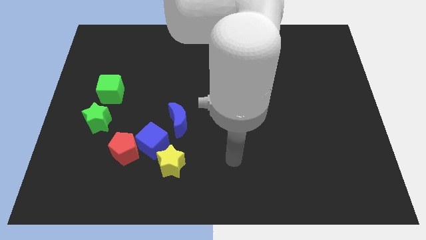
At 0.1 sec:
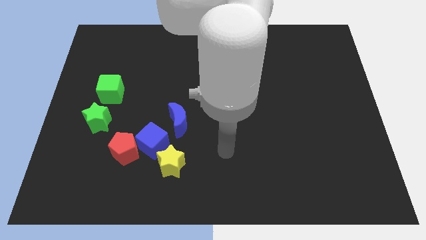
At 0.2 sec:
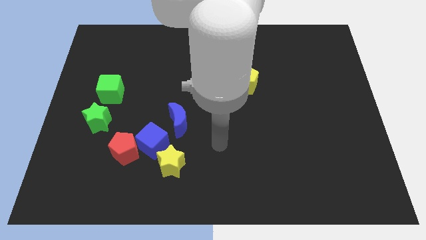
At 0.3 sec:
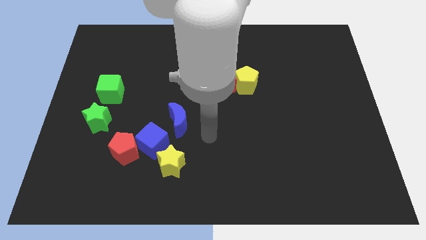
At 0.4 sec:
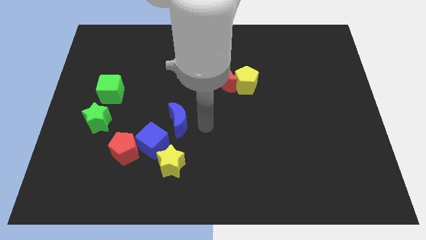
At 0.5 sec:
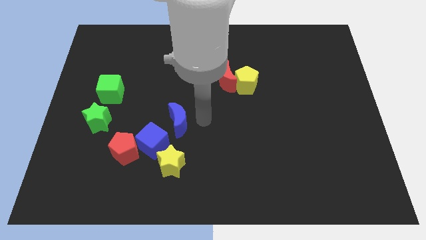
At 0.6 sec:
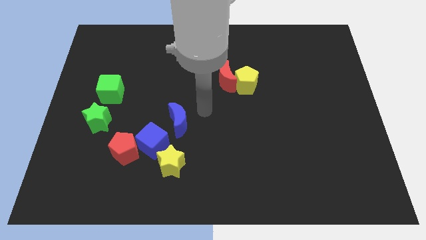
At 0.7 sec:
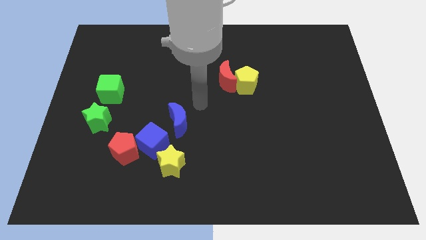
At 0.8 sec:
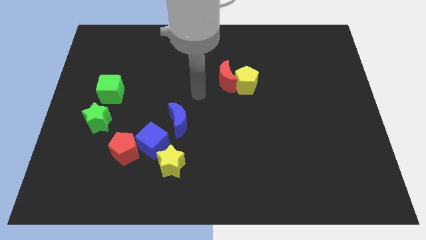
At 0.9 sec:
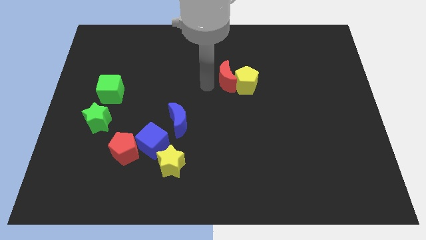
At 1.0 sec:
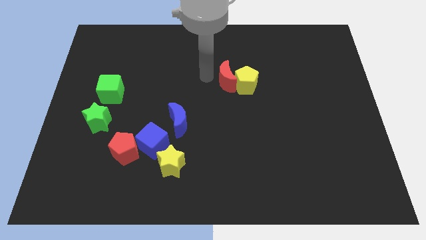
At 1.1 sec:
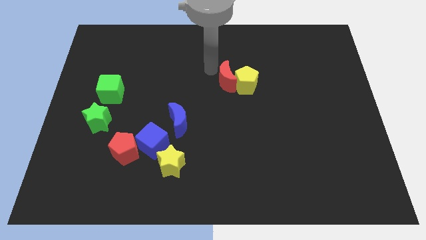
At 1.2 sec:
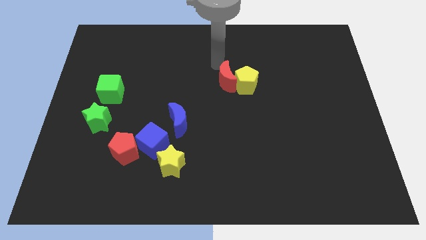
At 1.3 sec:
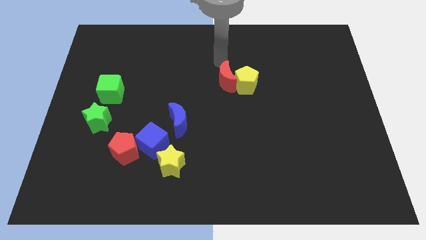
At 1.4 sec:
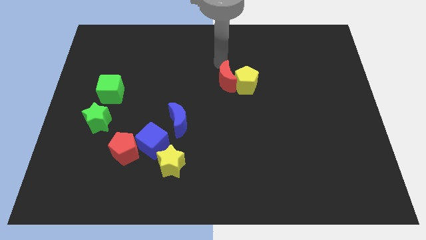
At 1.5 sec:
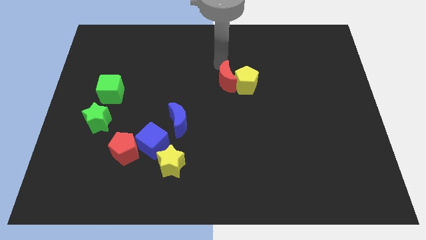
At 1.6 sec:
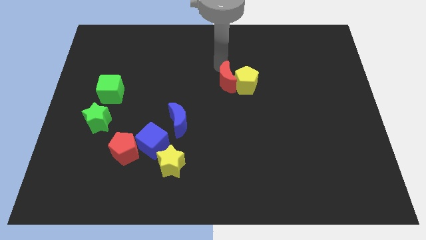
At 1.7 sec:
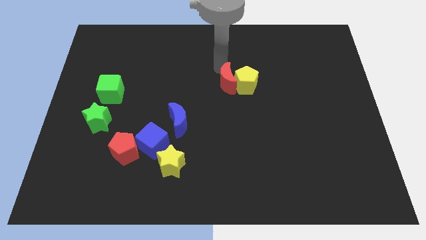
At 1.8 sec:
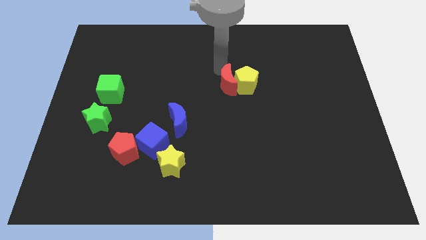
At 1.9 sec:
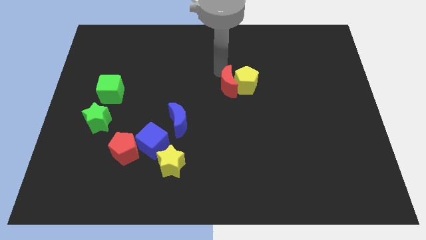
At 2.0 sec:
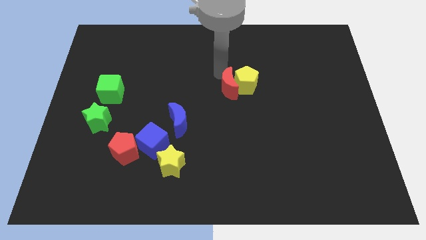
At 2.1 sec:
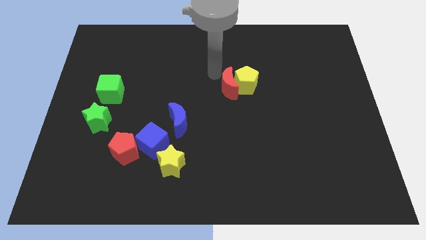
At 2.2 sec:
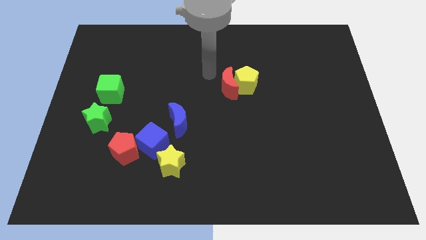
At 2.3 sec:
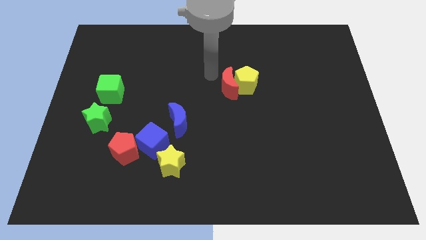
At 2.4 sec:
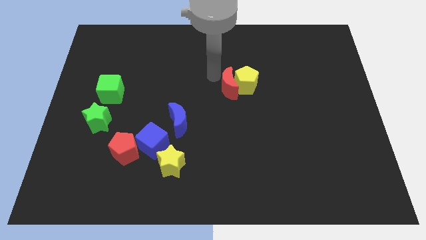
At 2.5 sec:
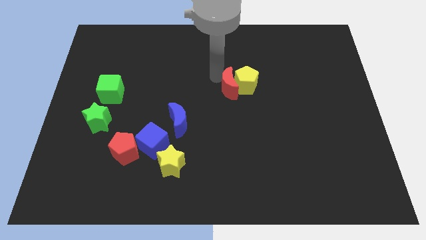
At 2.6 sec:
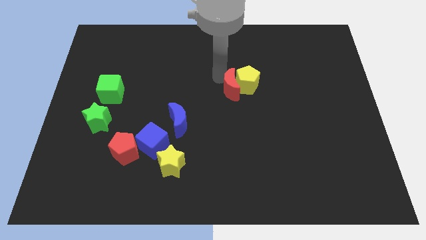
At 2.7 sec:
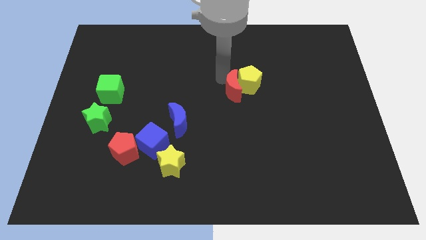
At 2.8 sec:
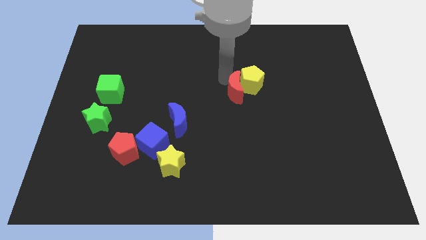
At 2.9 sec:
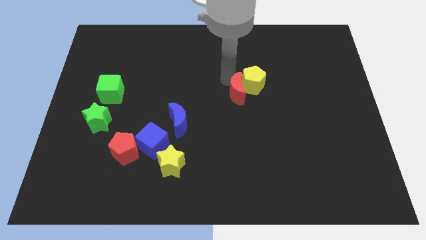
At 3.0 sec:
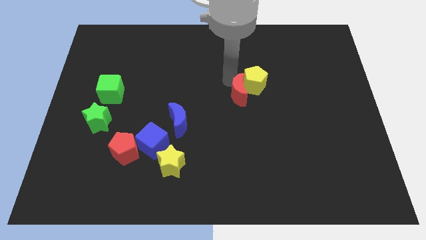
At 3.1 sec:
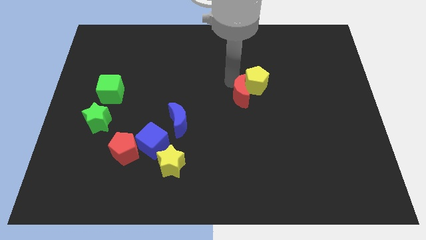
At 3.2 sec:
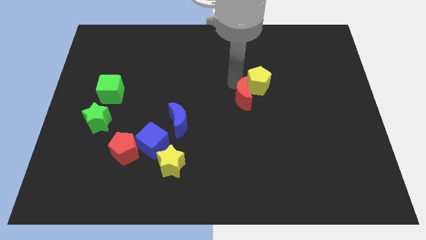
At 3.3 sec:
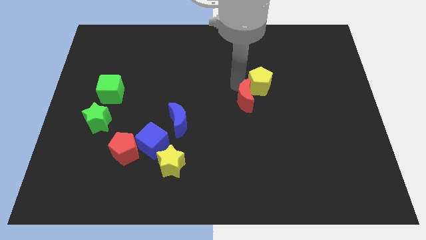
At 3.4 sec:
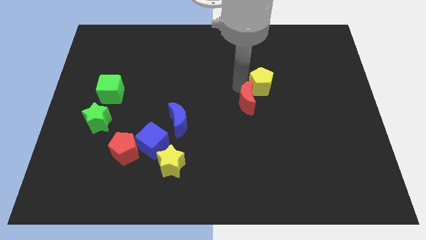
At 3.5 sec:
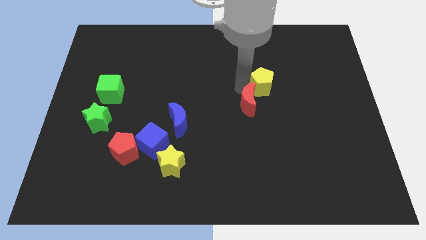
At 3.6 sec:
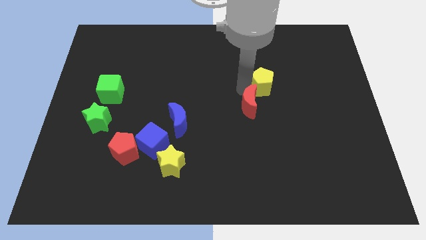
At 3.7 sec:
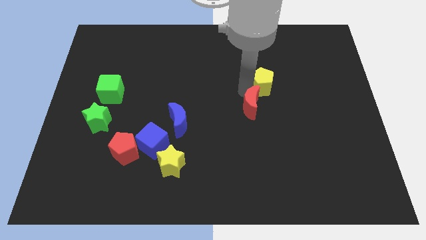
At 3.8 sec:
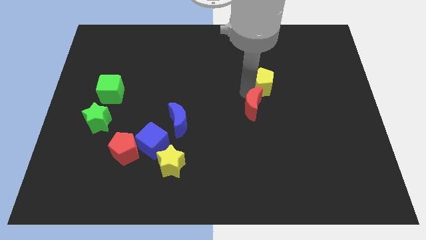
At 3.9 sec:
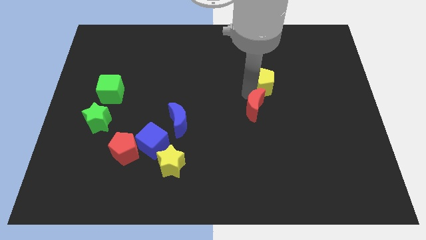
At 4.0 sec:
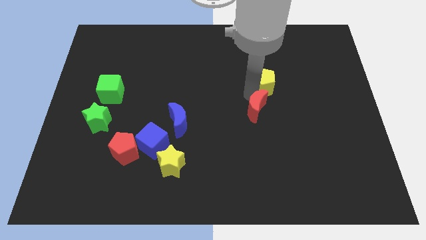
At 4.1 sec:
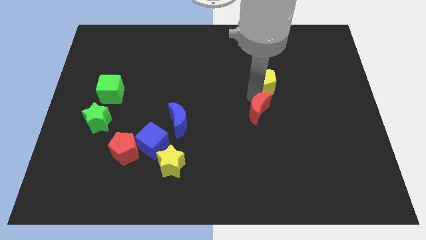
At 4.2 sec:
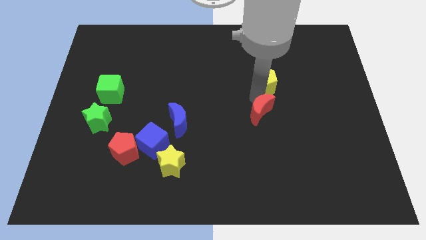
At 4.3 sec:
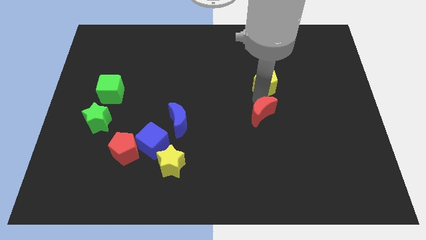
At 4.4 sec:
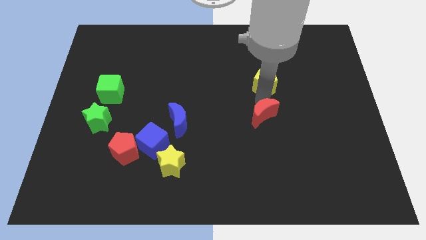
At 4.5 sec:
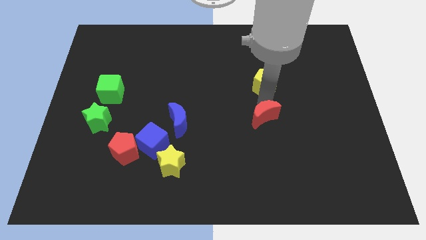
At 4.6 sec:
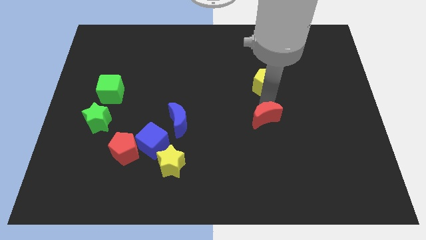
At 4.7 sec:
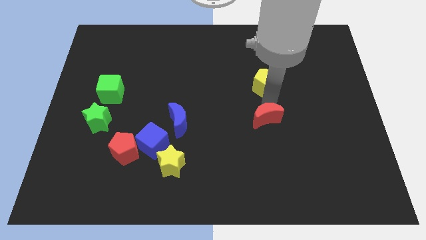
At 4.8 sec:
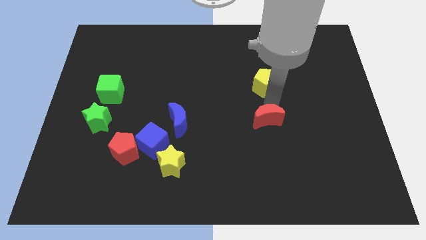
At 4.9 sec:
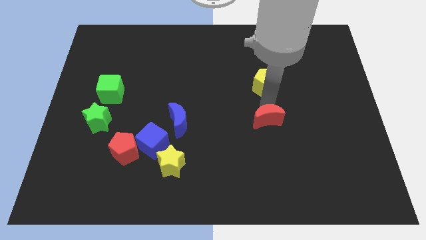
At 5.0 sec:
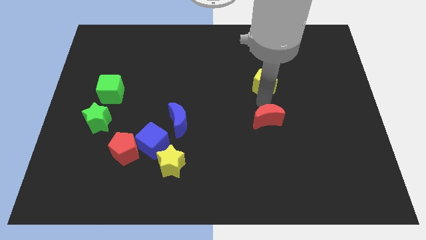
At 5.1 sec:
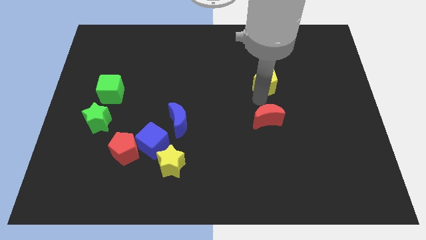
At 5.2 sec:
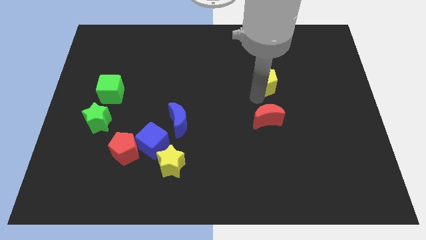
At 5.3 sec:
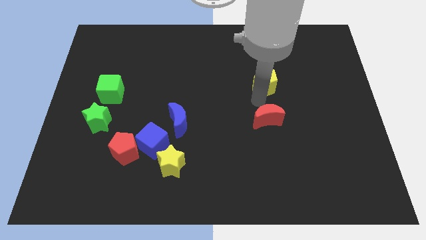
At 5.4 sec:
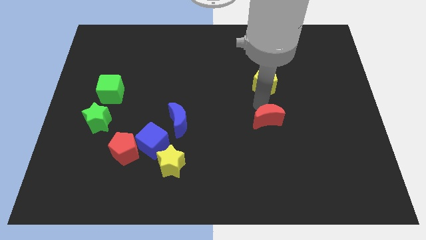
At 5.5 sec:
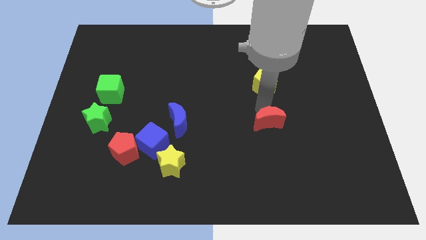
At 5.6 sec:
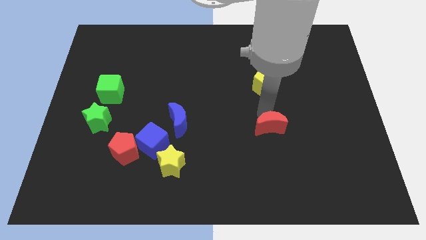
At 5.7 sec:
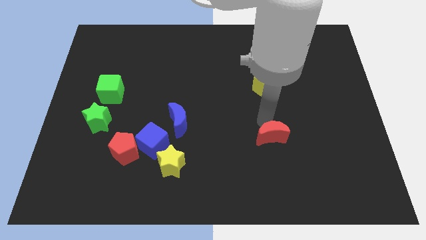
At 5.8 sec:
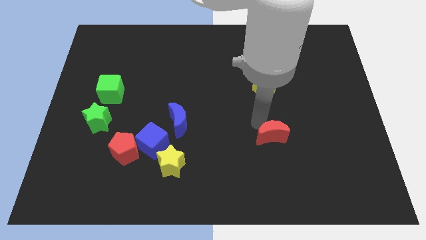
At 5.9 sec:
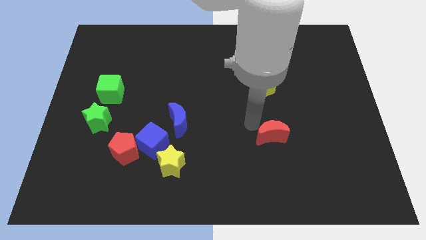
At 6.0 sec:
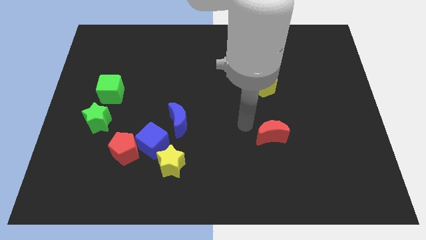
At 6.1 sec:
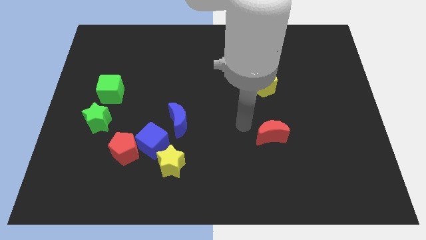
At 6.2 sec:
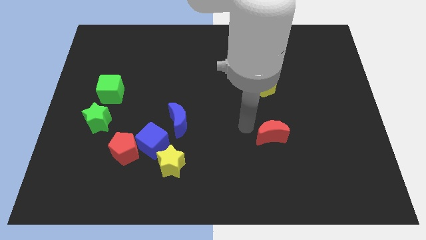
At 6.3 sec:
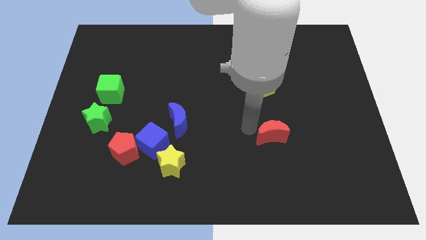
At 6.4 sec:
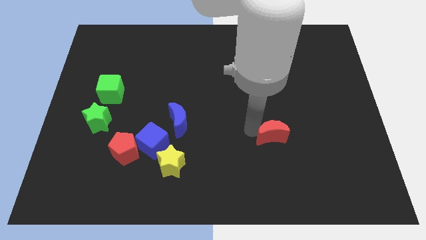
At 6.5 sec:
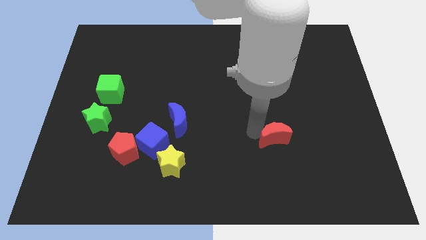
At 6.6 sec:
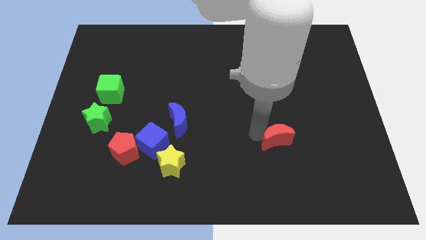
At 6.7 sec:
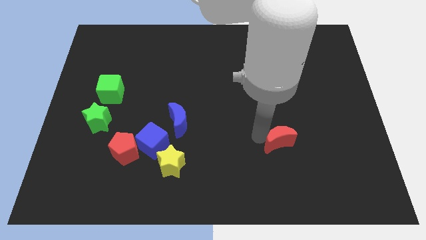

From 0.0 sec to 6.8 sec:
move the red moon downwards and then to the right

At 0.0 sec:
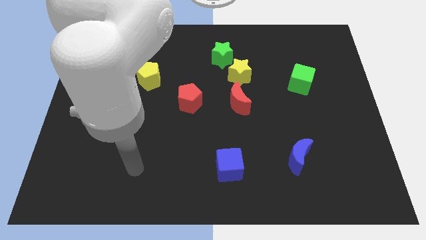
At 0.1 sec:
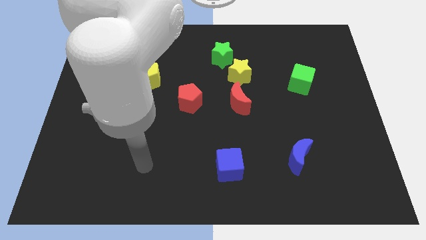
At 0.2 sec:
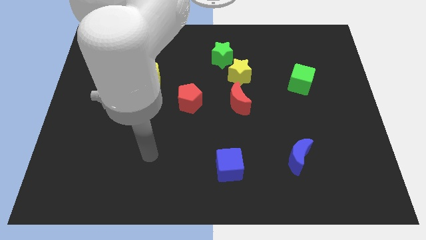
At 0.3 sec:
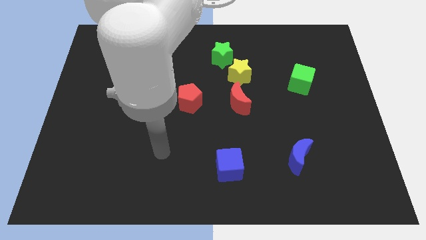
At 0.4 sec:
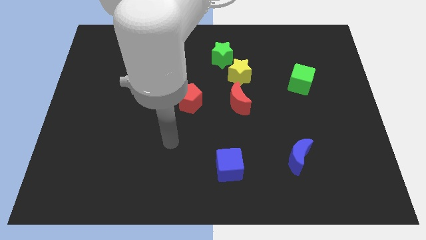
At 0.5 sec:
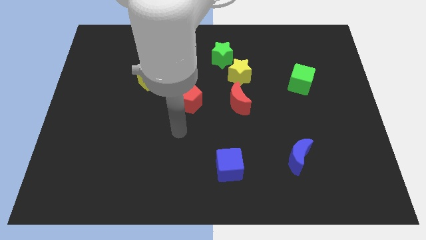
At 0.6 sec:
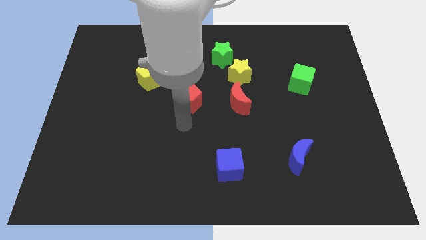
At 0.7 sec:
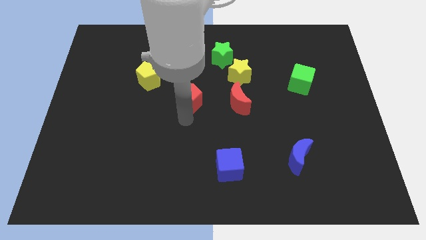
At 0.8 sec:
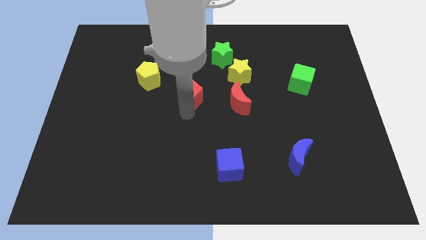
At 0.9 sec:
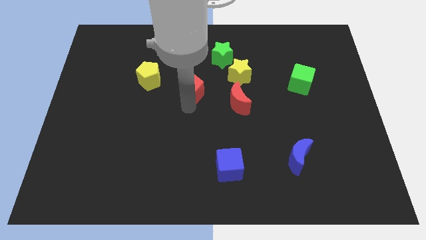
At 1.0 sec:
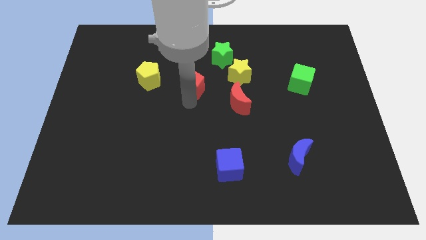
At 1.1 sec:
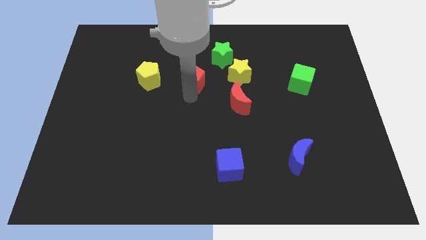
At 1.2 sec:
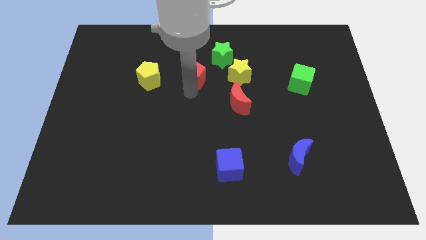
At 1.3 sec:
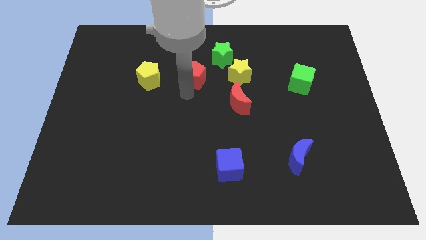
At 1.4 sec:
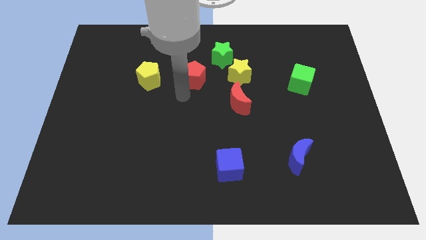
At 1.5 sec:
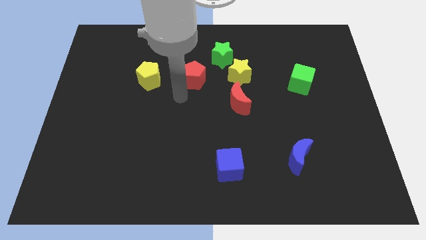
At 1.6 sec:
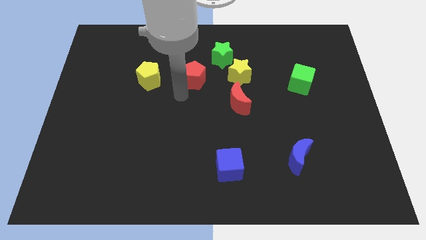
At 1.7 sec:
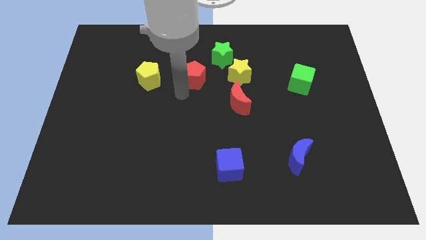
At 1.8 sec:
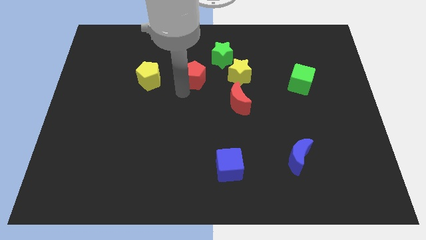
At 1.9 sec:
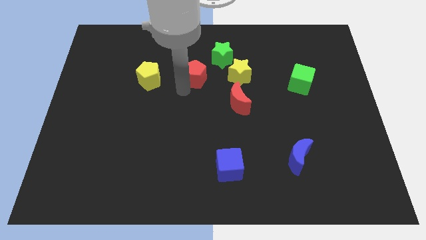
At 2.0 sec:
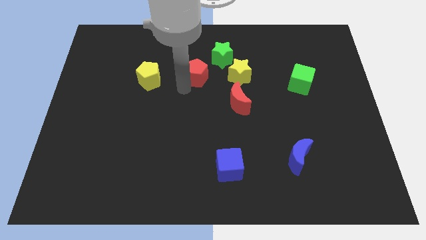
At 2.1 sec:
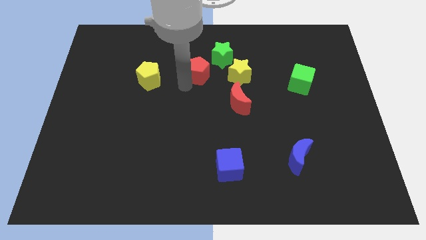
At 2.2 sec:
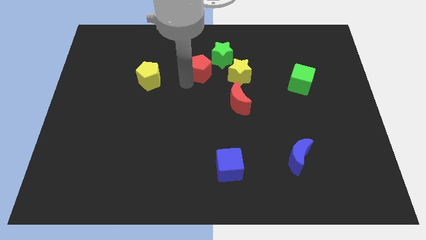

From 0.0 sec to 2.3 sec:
move the red pentagon somewhat upwards and right
